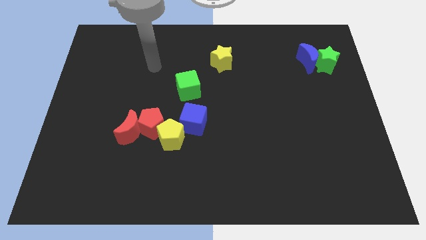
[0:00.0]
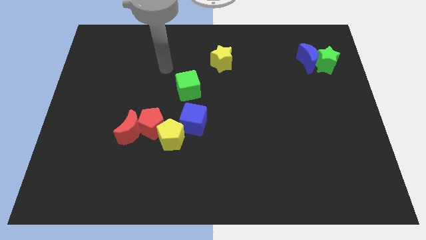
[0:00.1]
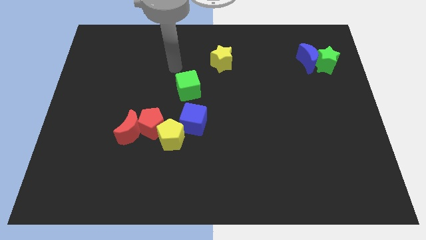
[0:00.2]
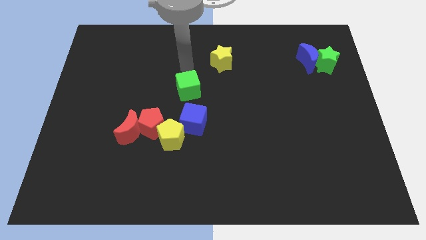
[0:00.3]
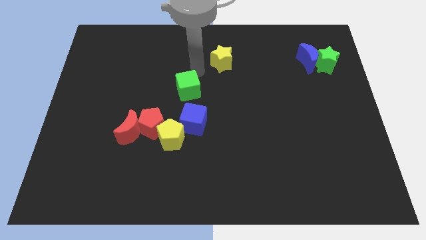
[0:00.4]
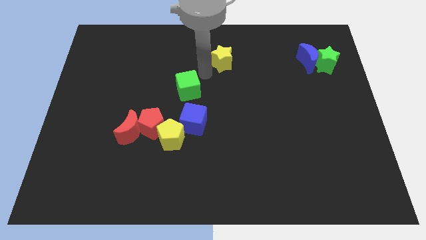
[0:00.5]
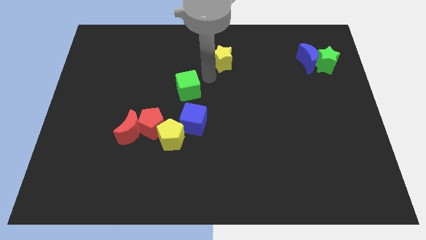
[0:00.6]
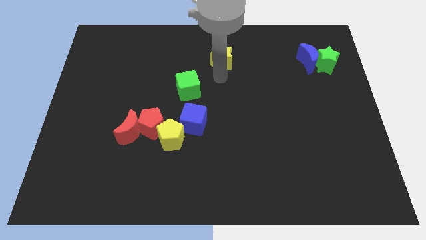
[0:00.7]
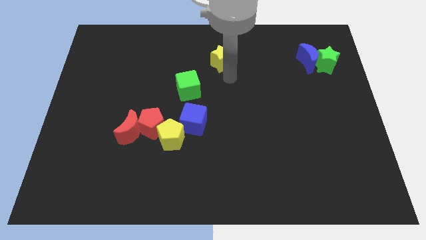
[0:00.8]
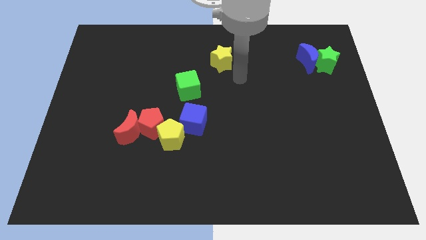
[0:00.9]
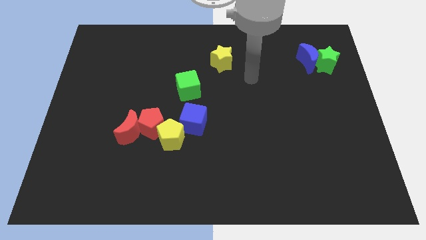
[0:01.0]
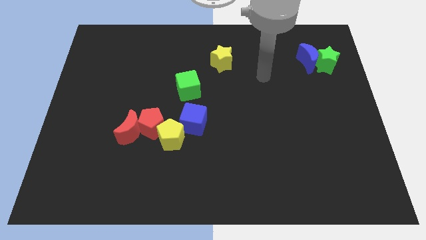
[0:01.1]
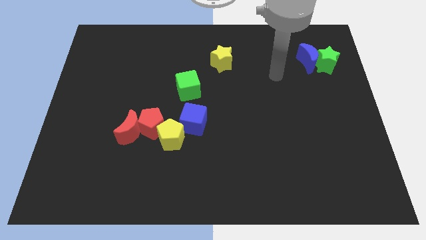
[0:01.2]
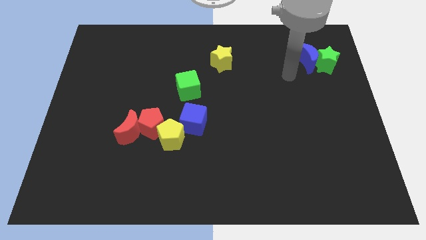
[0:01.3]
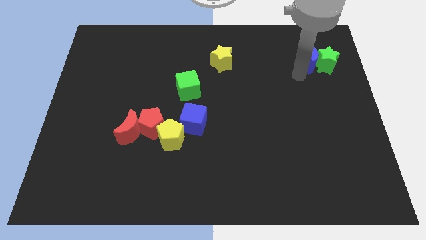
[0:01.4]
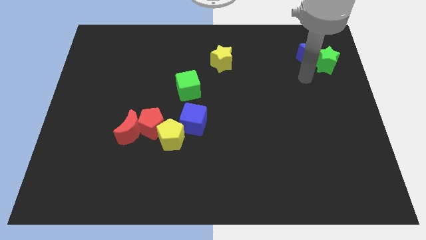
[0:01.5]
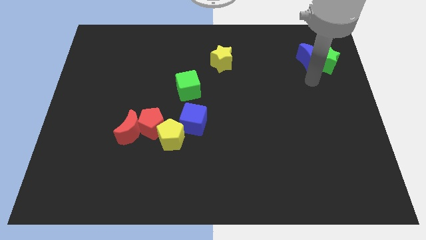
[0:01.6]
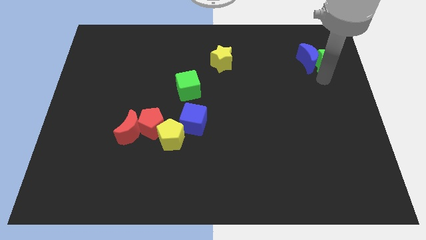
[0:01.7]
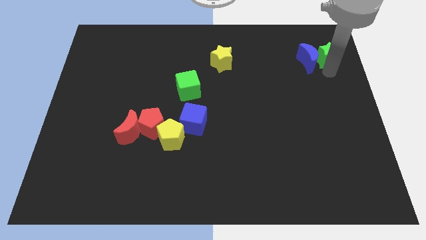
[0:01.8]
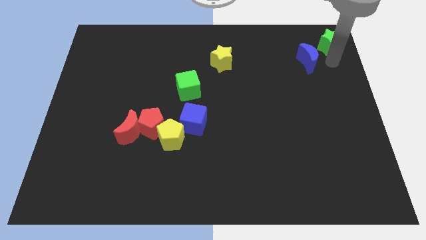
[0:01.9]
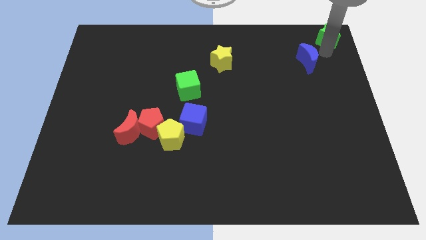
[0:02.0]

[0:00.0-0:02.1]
separate the blue moon from the green star

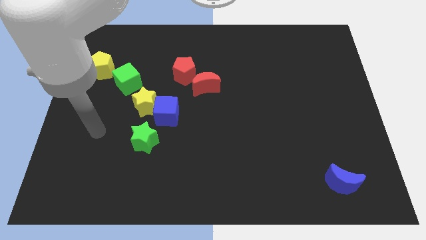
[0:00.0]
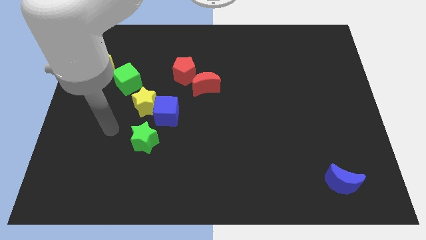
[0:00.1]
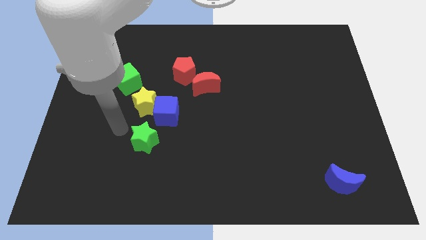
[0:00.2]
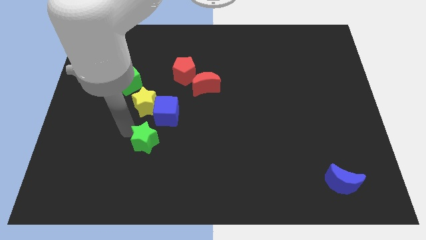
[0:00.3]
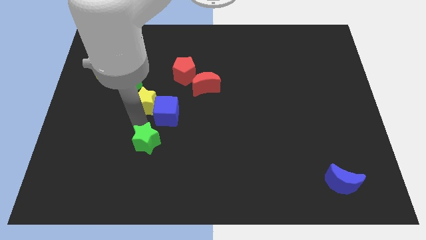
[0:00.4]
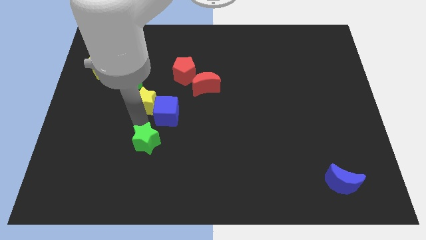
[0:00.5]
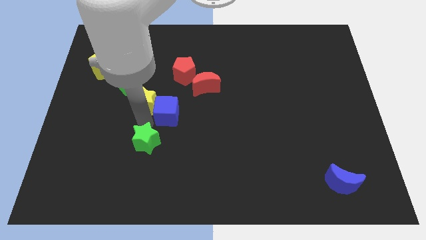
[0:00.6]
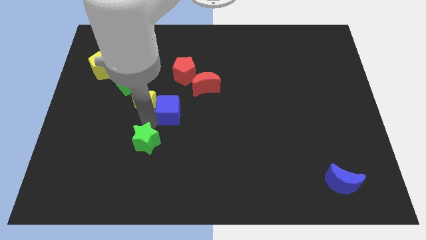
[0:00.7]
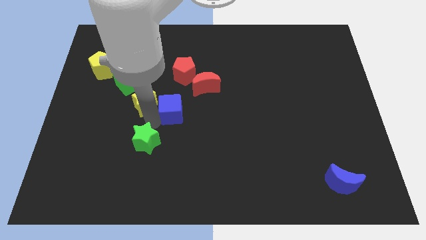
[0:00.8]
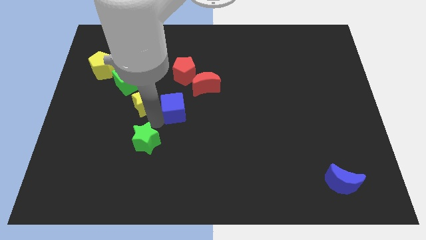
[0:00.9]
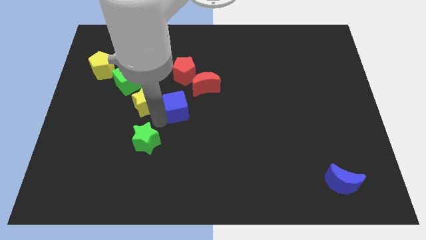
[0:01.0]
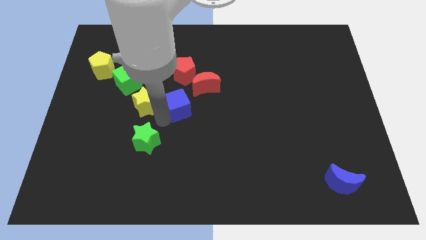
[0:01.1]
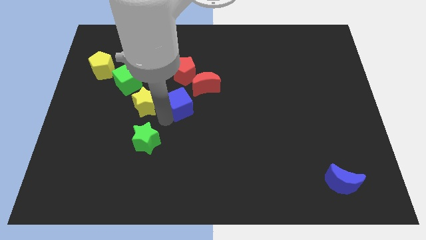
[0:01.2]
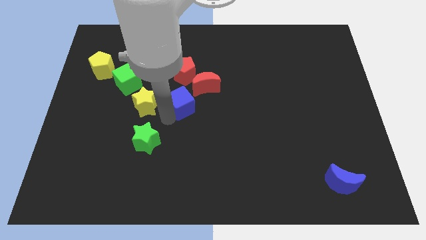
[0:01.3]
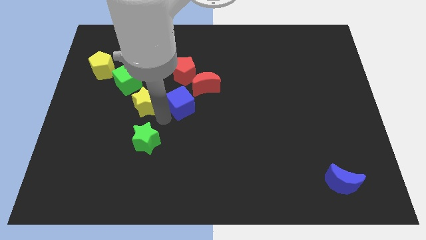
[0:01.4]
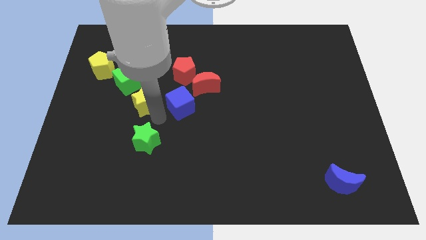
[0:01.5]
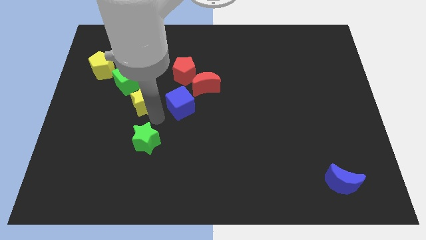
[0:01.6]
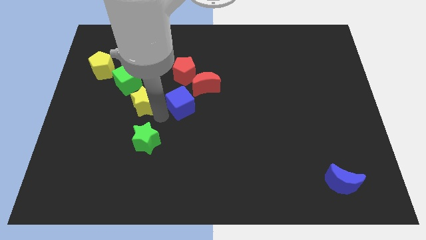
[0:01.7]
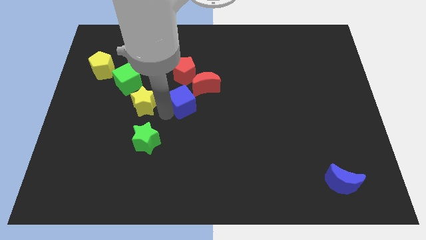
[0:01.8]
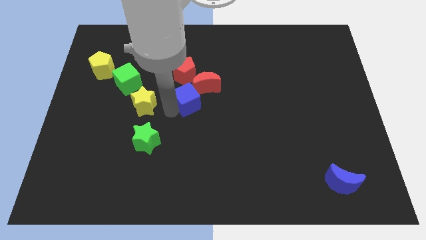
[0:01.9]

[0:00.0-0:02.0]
separate the blue cube from the yellow star and green star

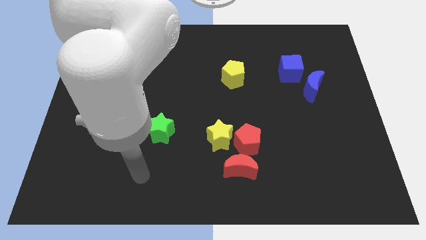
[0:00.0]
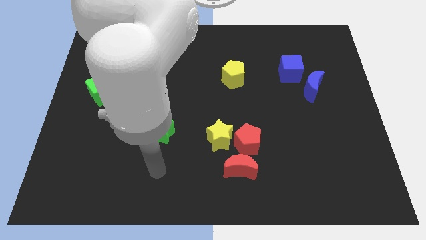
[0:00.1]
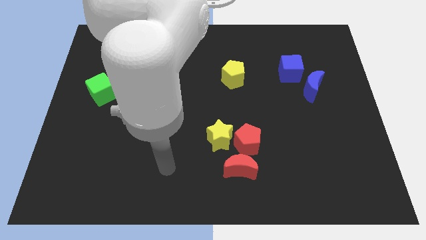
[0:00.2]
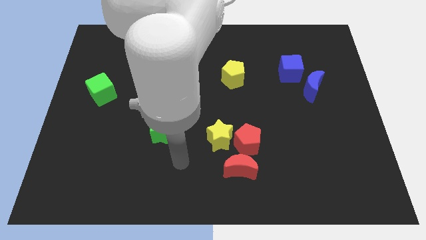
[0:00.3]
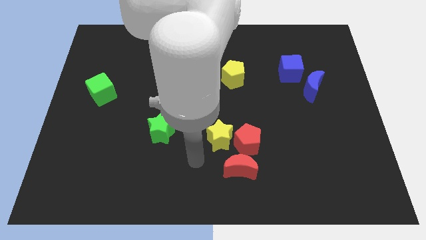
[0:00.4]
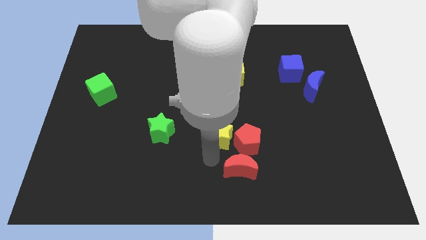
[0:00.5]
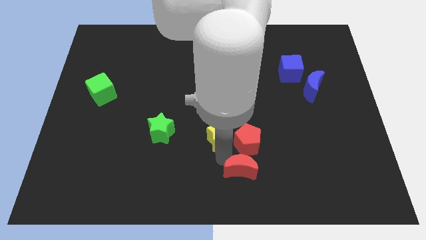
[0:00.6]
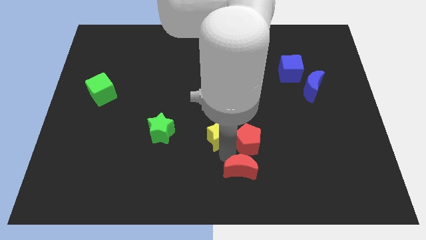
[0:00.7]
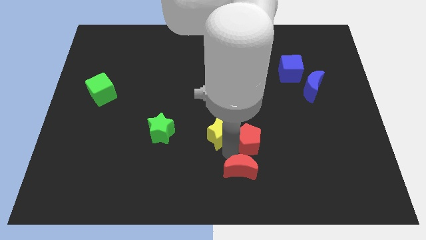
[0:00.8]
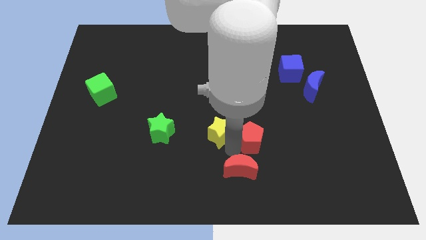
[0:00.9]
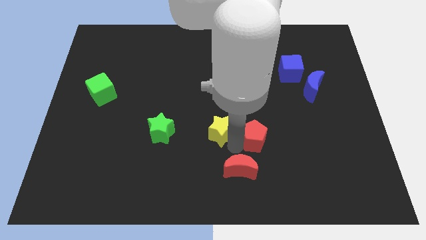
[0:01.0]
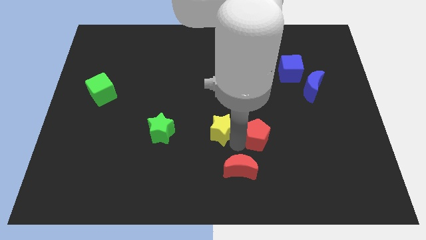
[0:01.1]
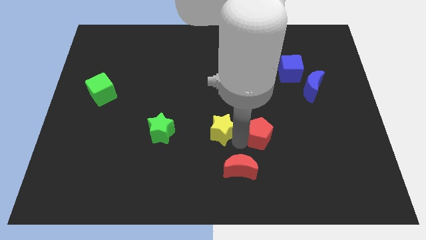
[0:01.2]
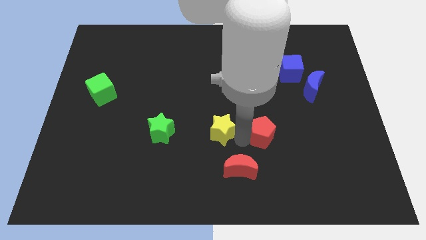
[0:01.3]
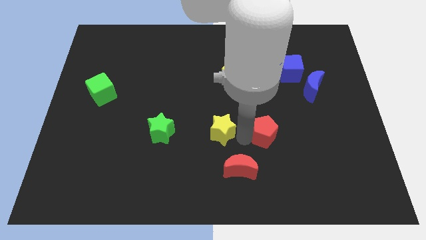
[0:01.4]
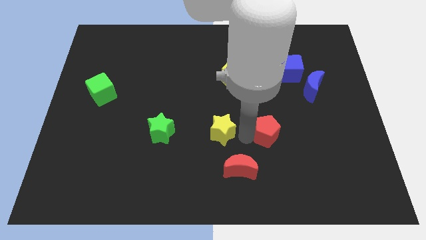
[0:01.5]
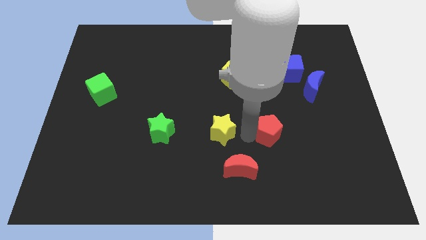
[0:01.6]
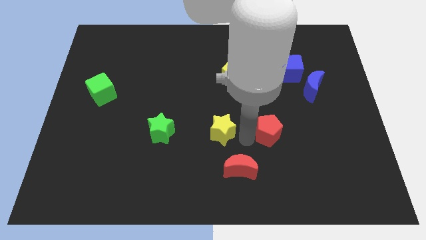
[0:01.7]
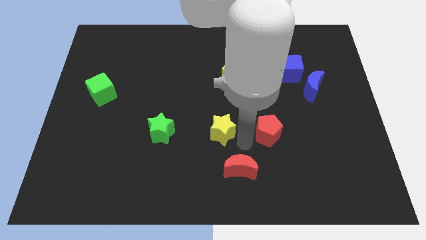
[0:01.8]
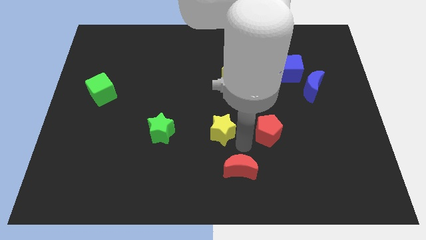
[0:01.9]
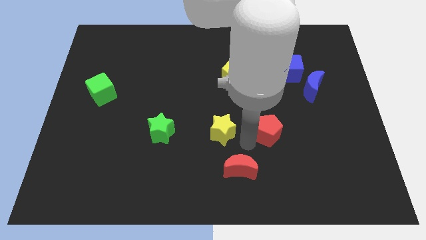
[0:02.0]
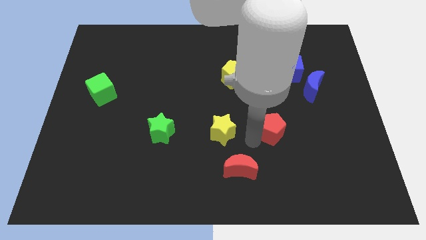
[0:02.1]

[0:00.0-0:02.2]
separate the red pentagon from the yellow star and red moon

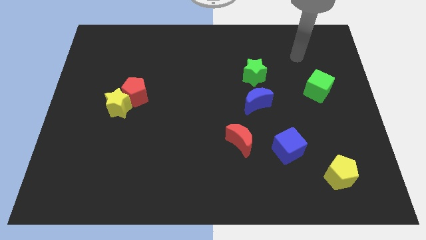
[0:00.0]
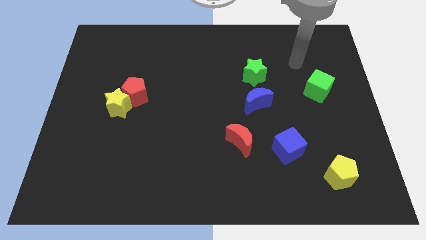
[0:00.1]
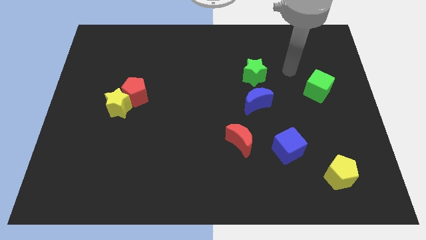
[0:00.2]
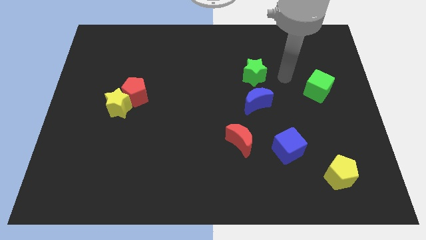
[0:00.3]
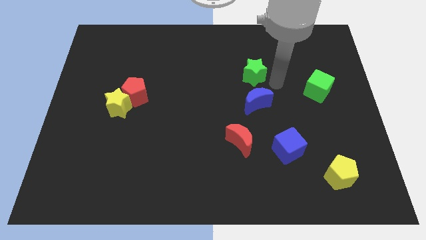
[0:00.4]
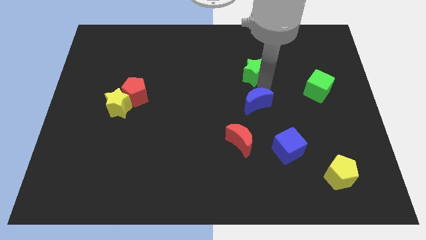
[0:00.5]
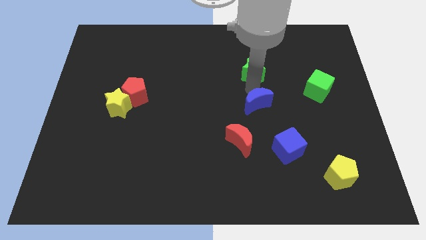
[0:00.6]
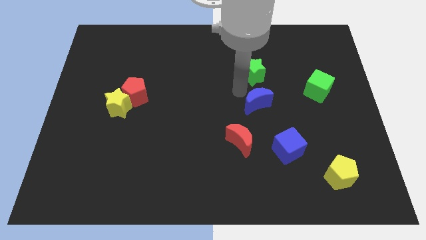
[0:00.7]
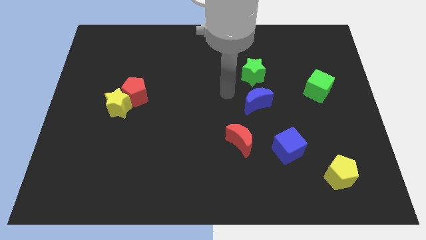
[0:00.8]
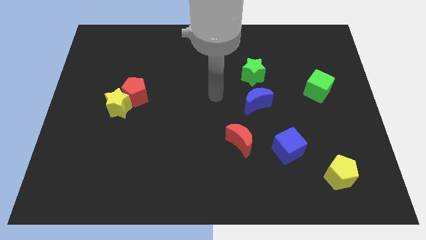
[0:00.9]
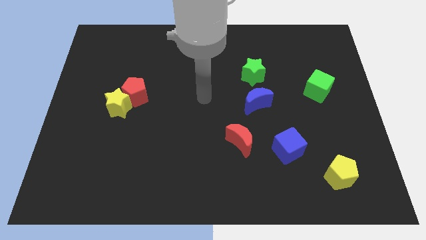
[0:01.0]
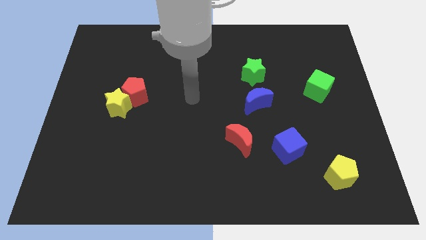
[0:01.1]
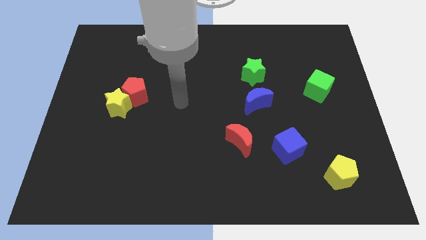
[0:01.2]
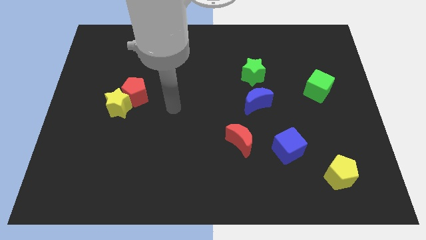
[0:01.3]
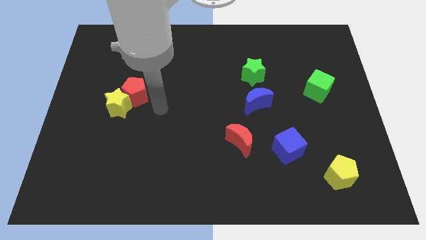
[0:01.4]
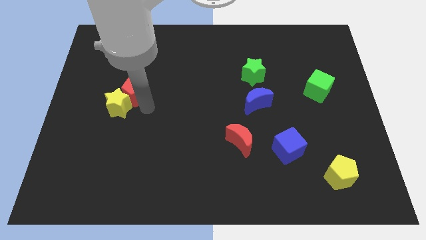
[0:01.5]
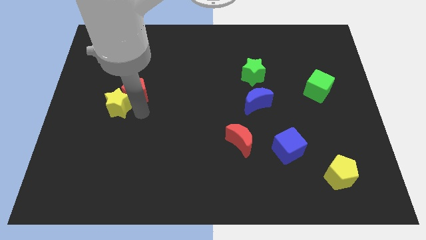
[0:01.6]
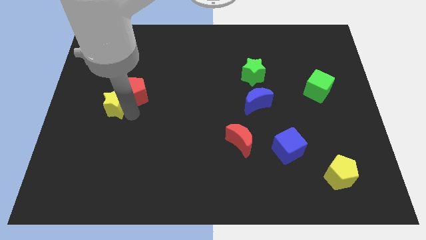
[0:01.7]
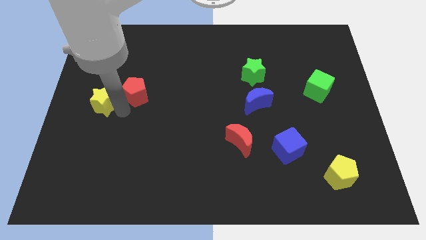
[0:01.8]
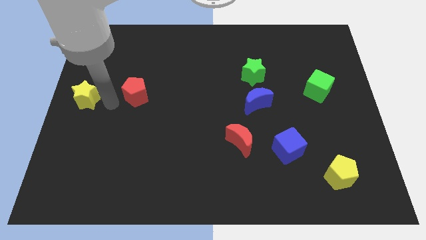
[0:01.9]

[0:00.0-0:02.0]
separate the red pentagon from the yellow star

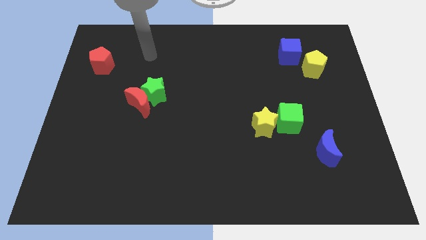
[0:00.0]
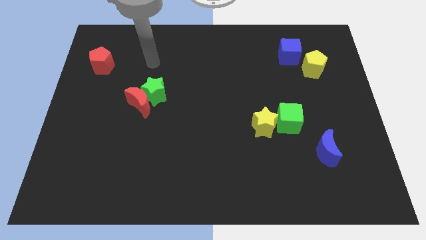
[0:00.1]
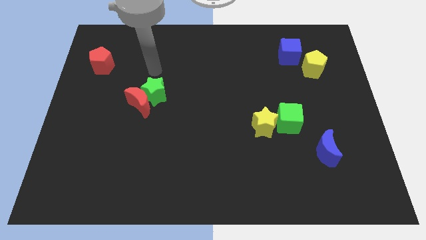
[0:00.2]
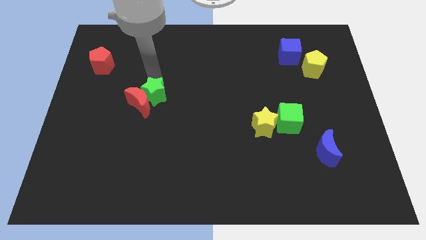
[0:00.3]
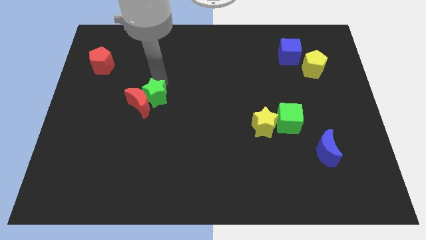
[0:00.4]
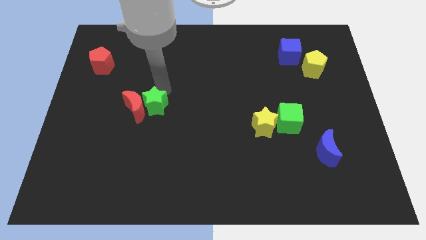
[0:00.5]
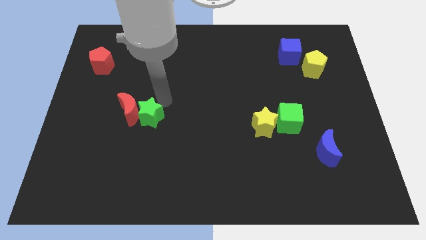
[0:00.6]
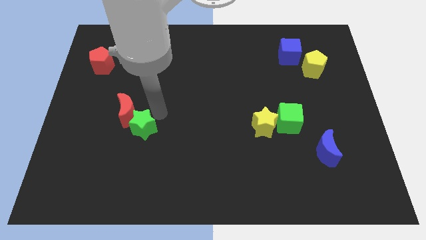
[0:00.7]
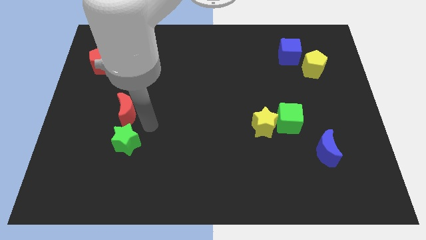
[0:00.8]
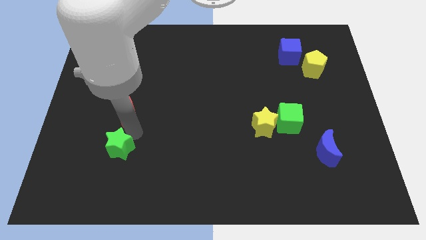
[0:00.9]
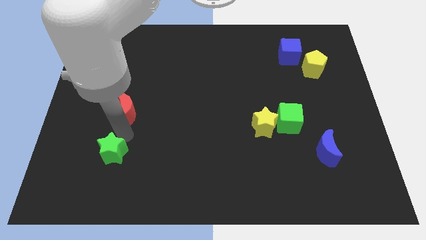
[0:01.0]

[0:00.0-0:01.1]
separate the red moon from the green star

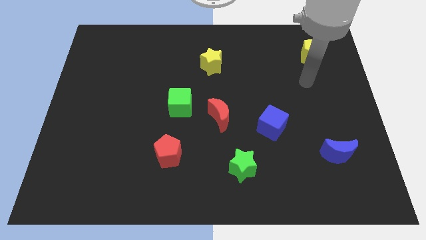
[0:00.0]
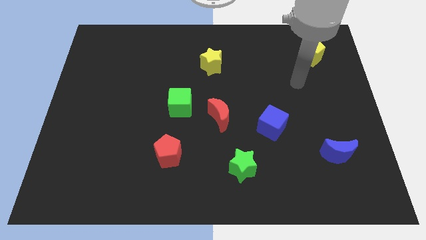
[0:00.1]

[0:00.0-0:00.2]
pull the red moon apart from the green cube
